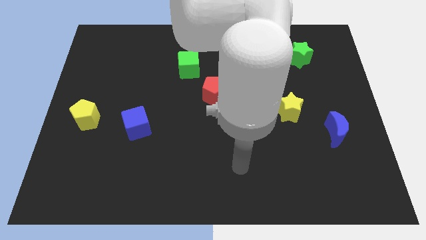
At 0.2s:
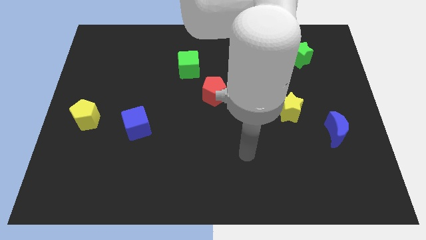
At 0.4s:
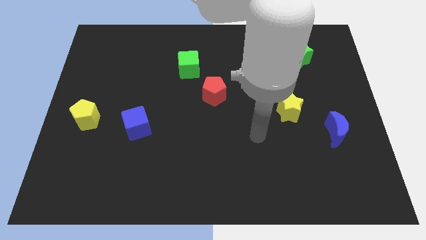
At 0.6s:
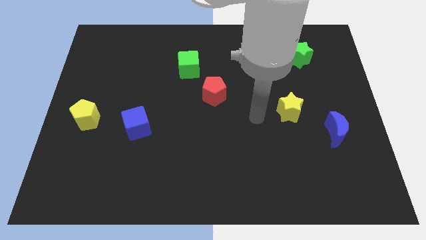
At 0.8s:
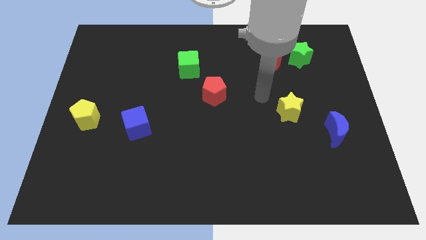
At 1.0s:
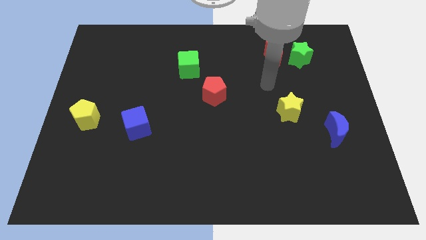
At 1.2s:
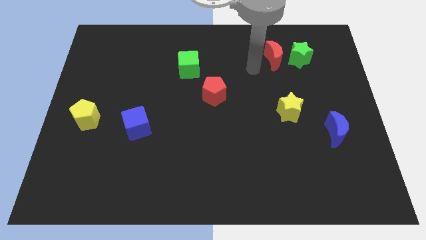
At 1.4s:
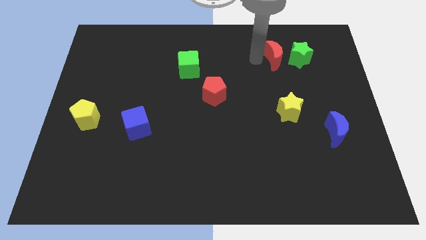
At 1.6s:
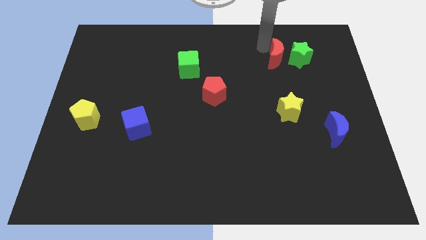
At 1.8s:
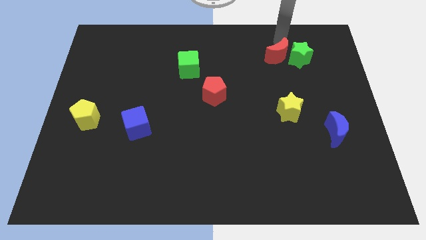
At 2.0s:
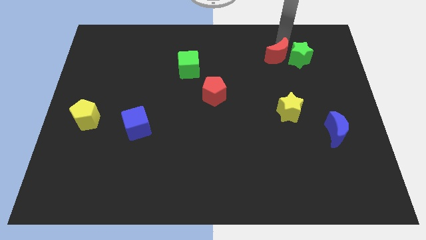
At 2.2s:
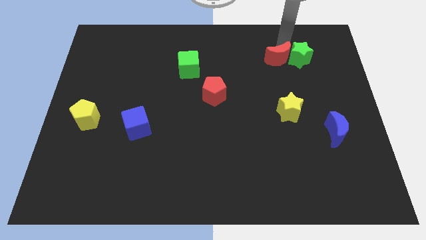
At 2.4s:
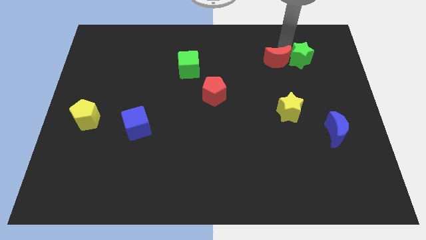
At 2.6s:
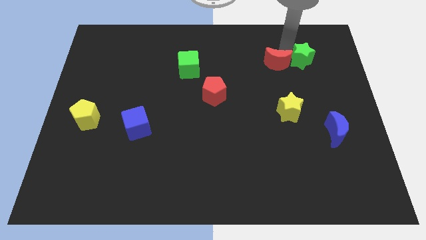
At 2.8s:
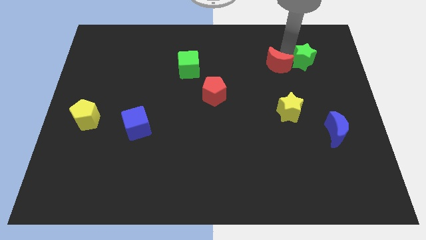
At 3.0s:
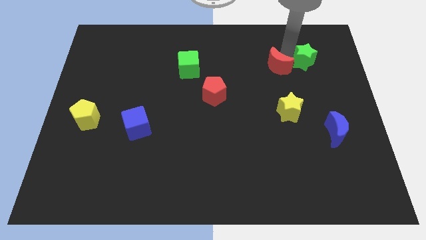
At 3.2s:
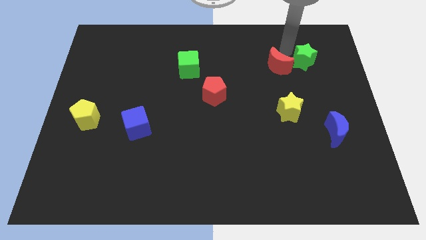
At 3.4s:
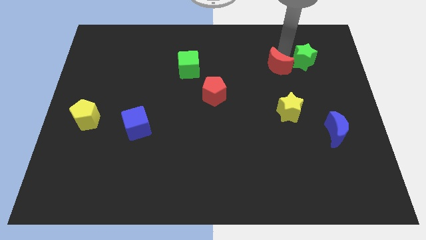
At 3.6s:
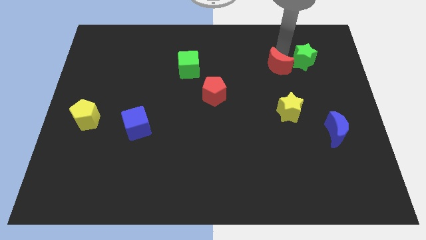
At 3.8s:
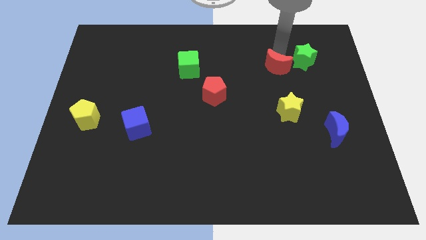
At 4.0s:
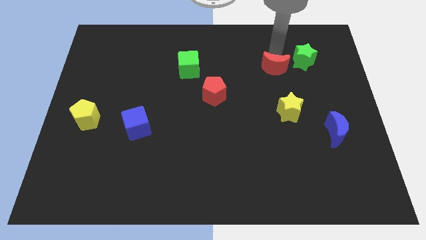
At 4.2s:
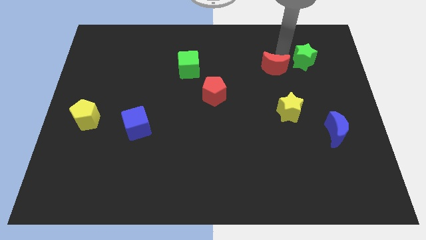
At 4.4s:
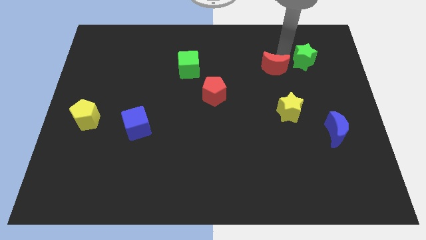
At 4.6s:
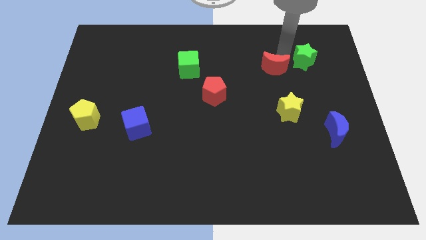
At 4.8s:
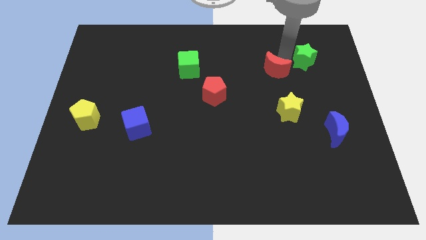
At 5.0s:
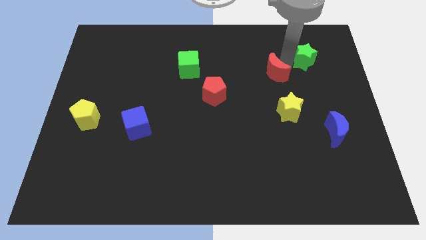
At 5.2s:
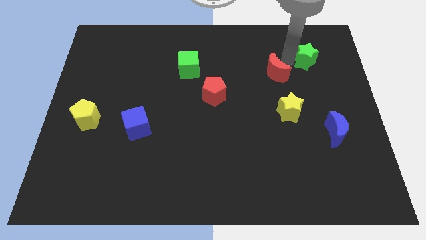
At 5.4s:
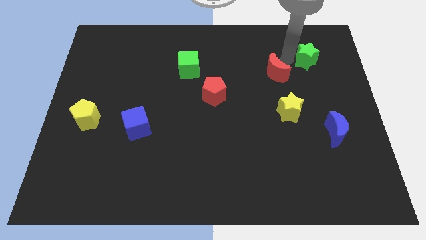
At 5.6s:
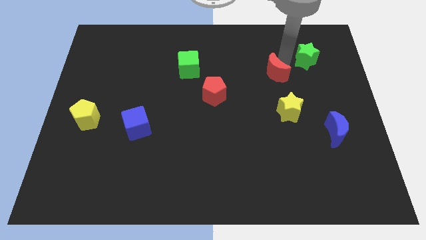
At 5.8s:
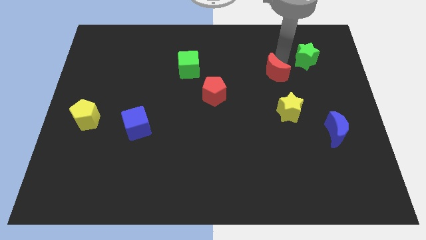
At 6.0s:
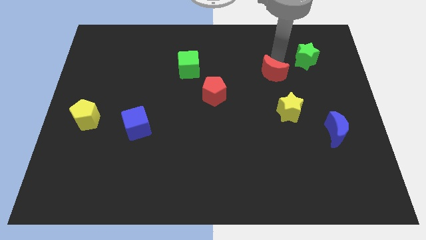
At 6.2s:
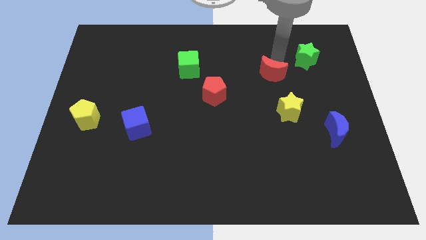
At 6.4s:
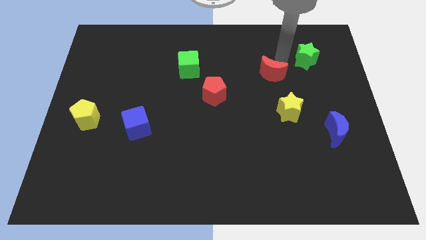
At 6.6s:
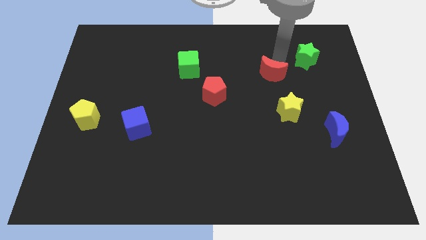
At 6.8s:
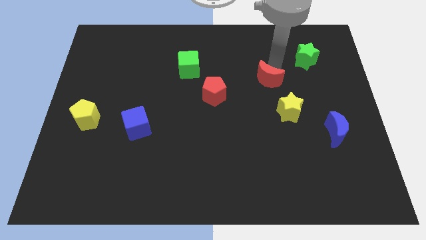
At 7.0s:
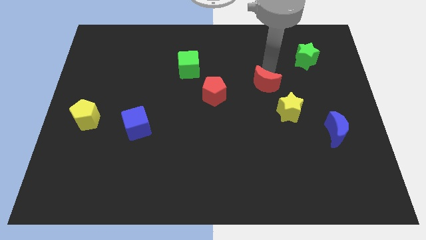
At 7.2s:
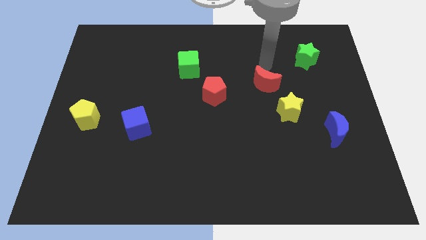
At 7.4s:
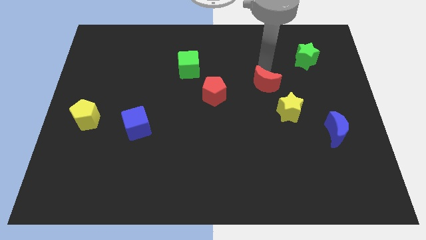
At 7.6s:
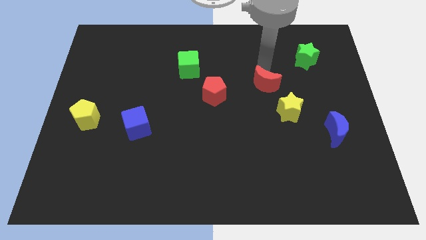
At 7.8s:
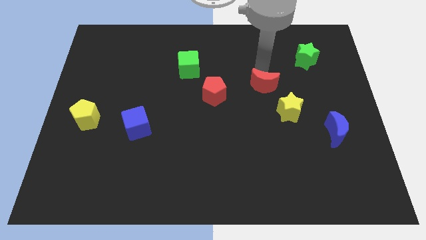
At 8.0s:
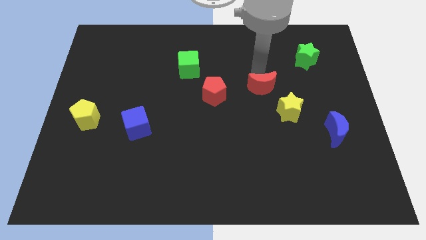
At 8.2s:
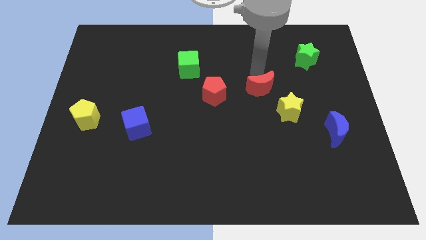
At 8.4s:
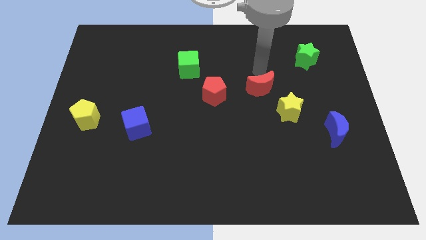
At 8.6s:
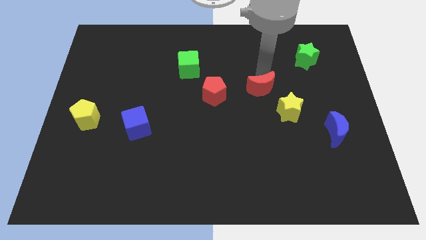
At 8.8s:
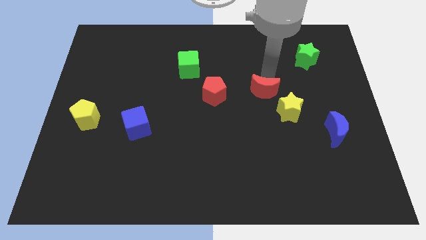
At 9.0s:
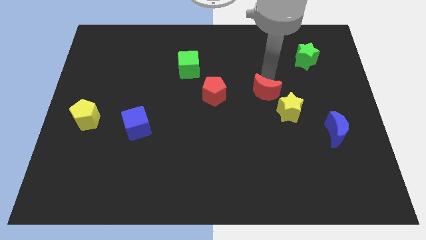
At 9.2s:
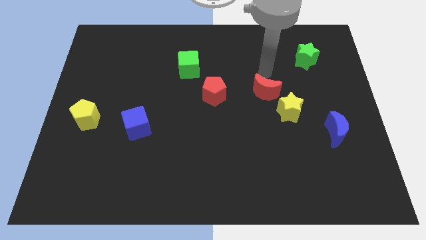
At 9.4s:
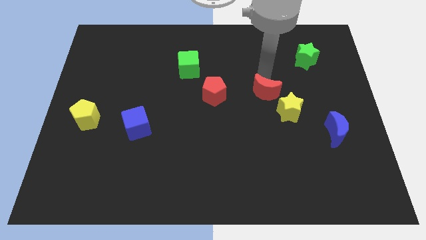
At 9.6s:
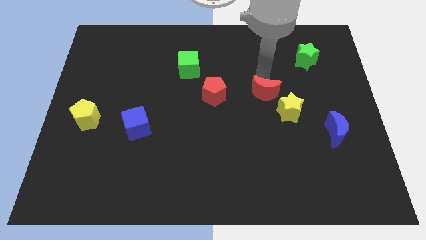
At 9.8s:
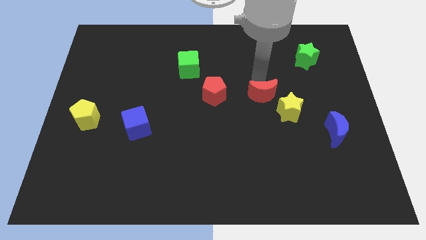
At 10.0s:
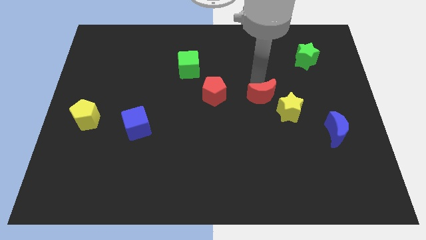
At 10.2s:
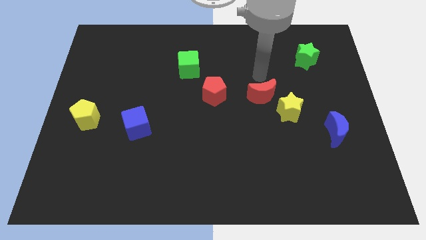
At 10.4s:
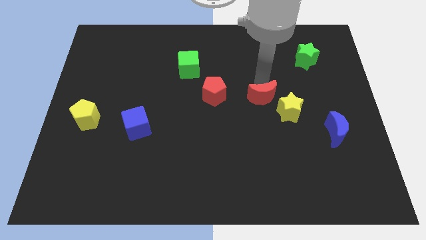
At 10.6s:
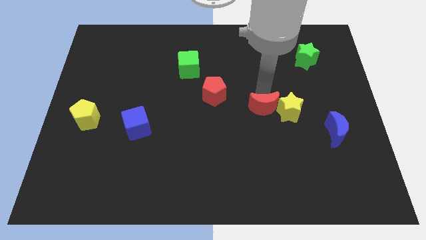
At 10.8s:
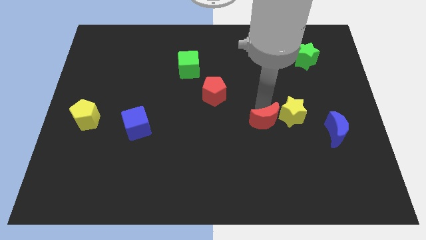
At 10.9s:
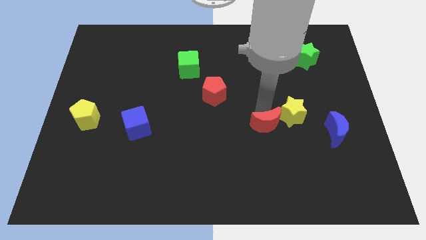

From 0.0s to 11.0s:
push the red moon downwards

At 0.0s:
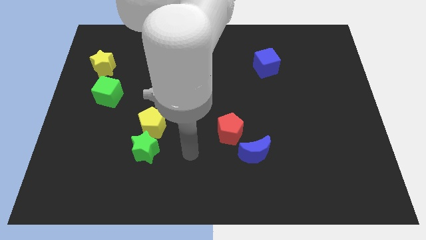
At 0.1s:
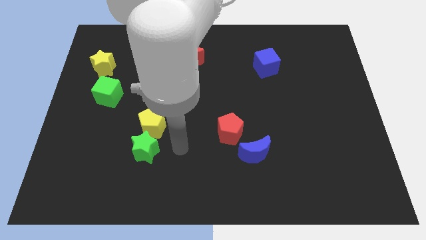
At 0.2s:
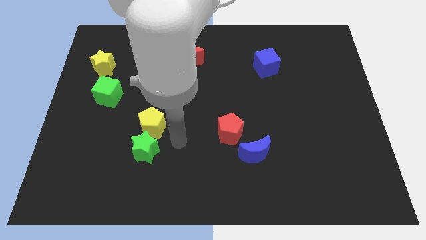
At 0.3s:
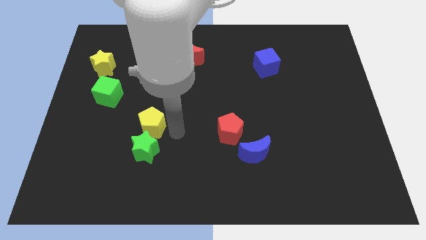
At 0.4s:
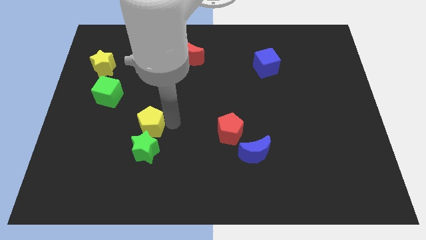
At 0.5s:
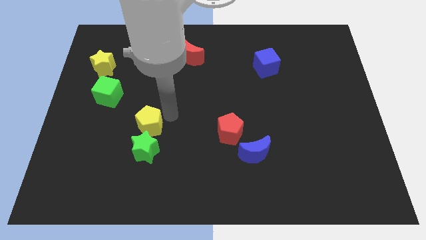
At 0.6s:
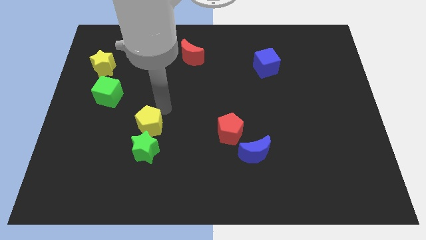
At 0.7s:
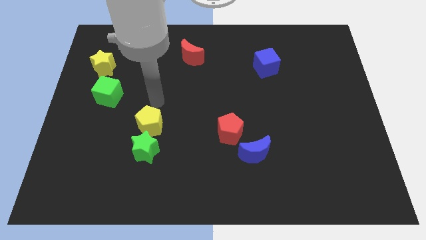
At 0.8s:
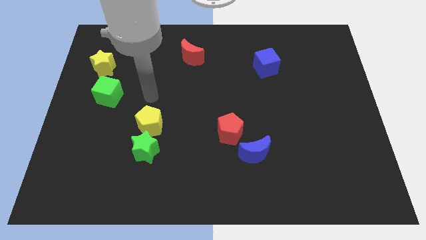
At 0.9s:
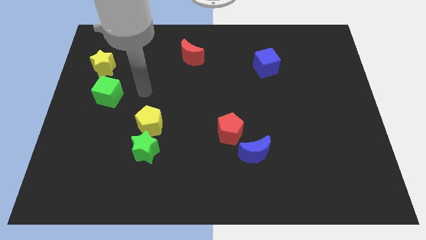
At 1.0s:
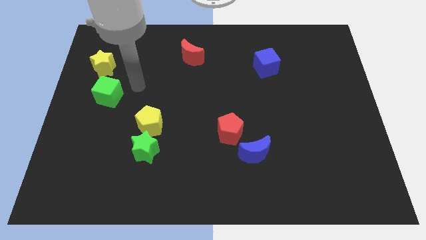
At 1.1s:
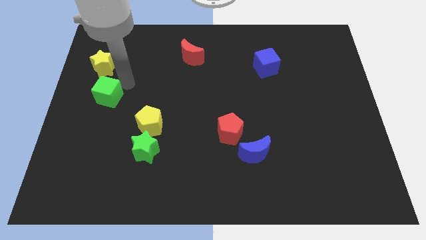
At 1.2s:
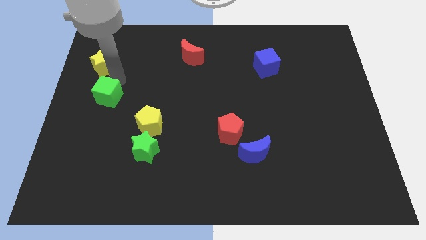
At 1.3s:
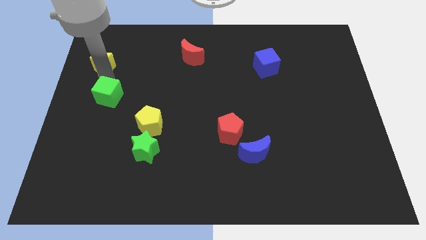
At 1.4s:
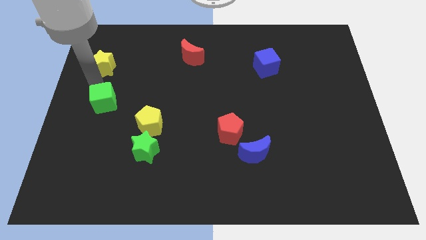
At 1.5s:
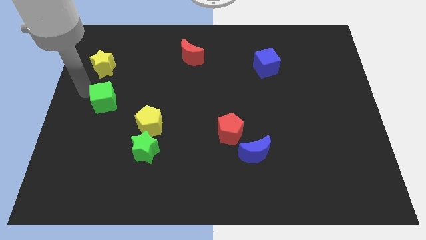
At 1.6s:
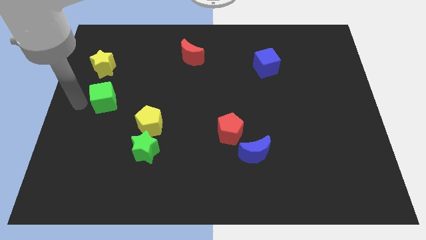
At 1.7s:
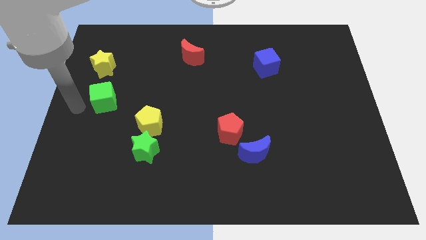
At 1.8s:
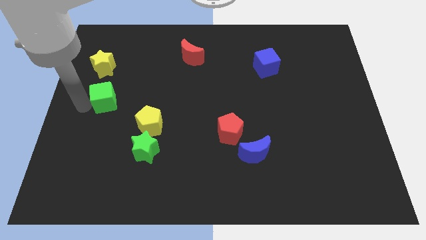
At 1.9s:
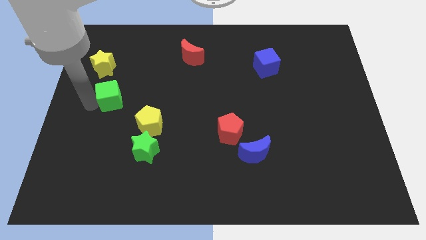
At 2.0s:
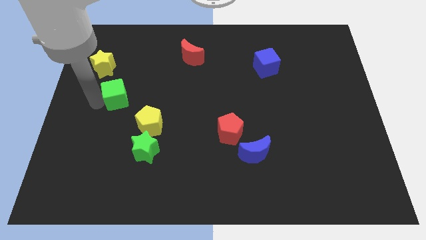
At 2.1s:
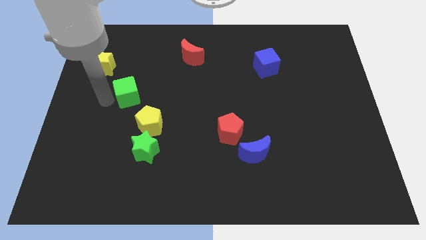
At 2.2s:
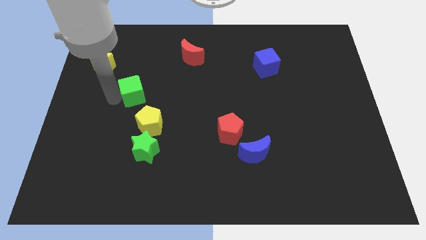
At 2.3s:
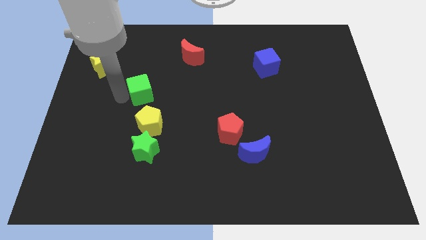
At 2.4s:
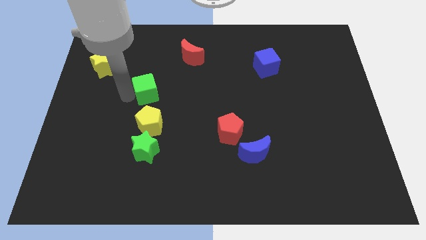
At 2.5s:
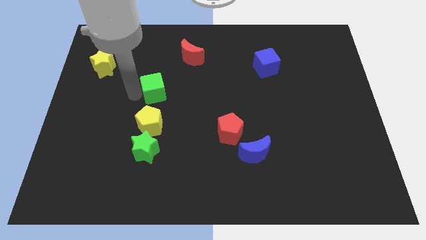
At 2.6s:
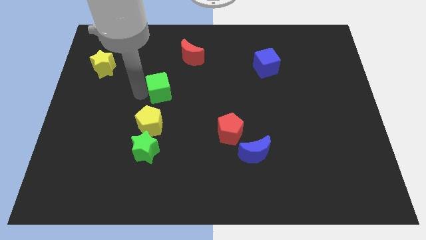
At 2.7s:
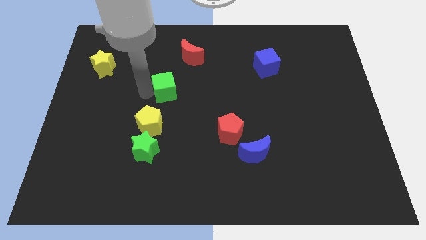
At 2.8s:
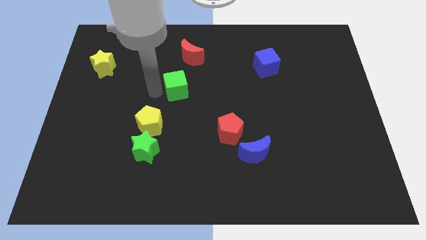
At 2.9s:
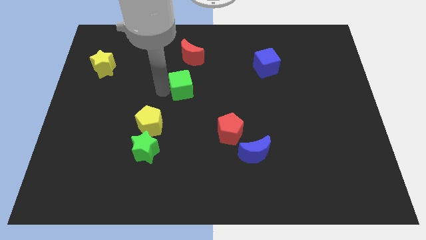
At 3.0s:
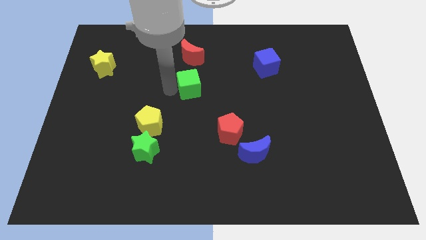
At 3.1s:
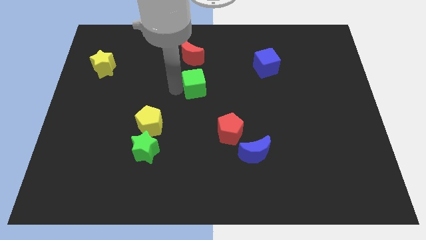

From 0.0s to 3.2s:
slide the green cube right
